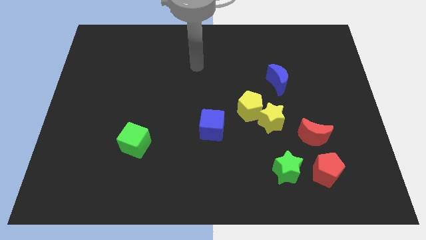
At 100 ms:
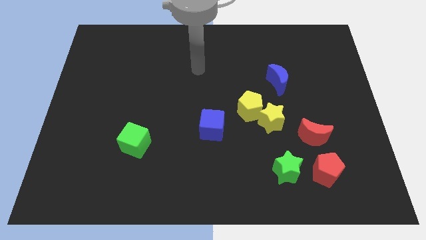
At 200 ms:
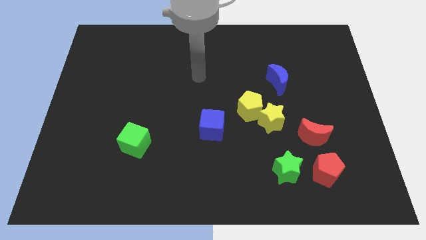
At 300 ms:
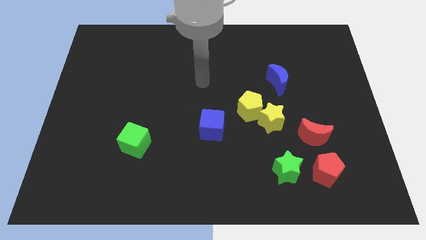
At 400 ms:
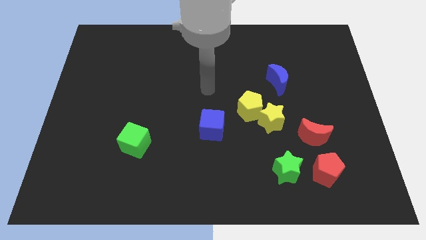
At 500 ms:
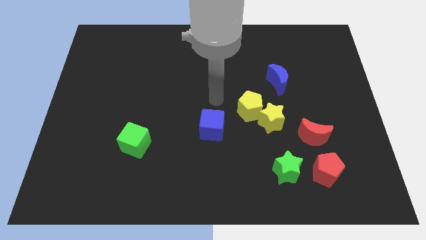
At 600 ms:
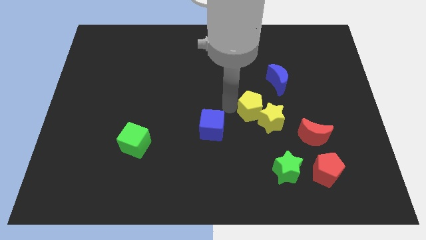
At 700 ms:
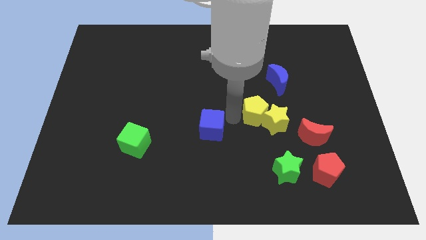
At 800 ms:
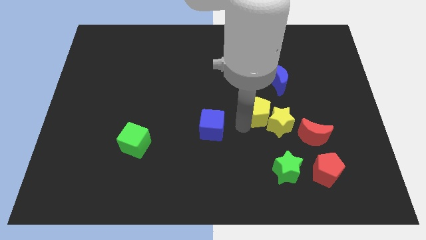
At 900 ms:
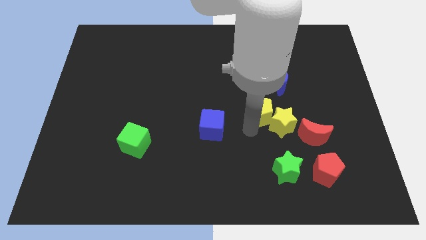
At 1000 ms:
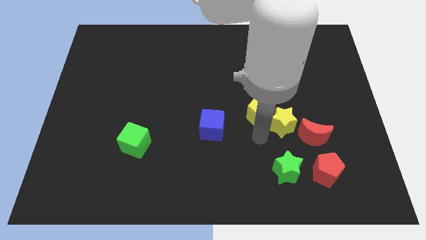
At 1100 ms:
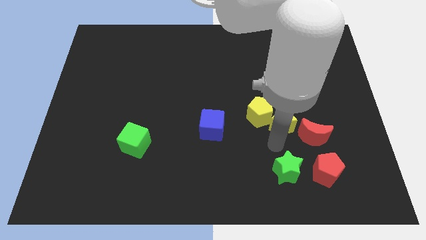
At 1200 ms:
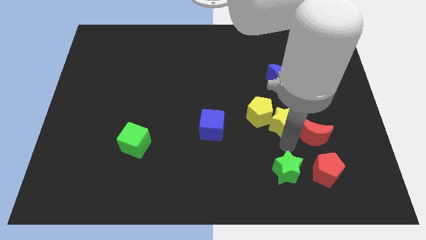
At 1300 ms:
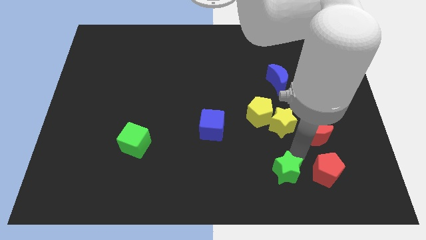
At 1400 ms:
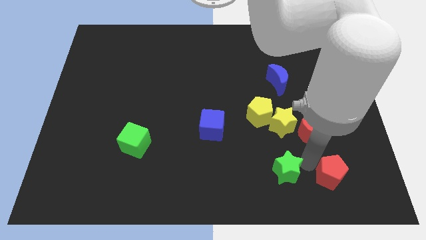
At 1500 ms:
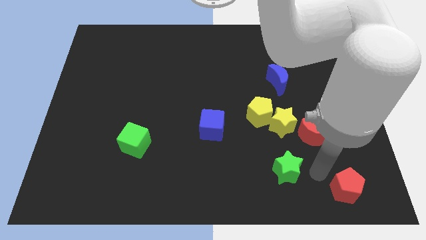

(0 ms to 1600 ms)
separate the green star from the red pentagon

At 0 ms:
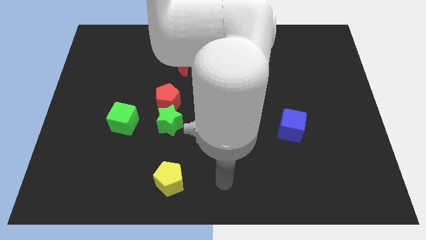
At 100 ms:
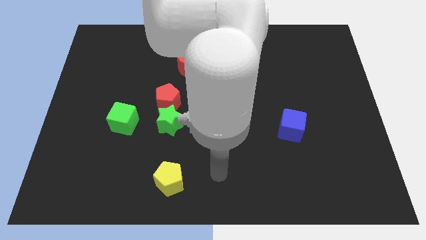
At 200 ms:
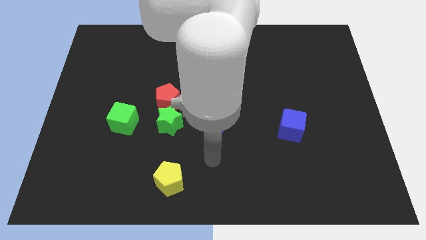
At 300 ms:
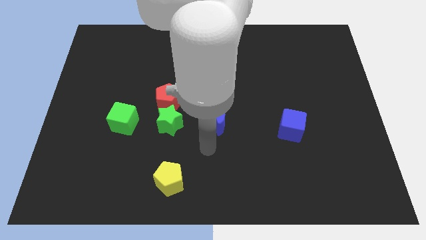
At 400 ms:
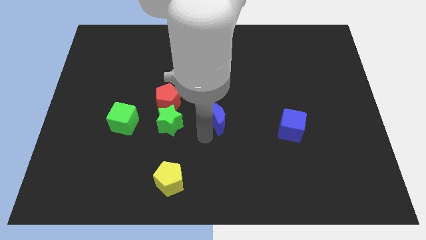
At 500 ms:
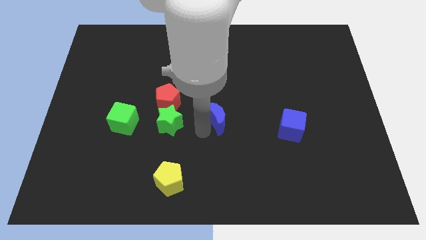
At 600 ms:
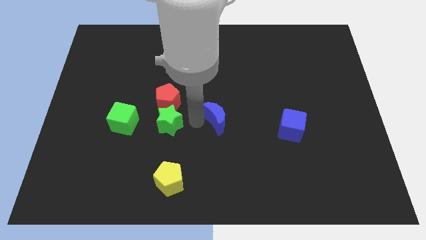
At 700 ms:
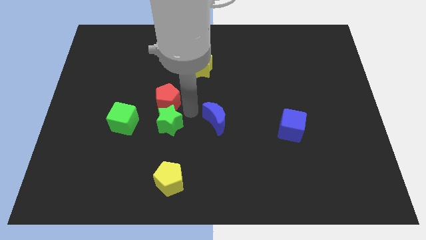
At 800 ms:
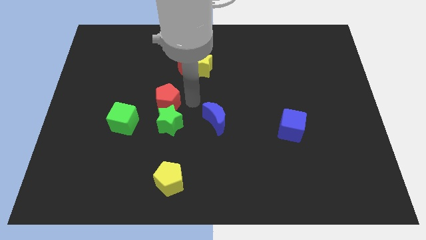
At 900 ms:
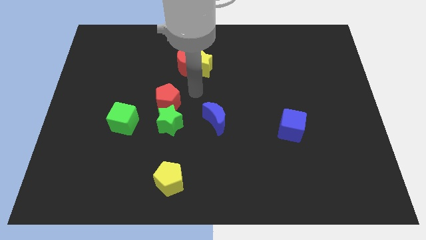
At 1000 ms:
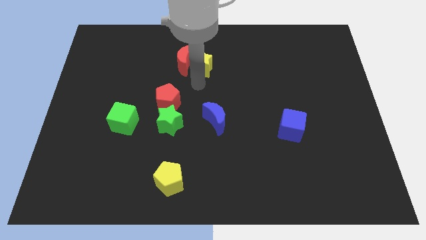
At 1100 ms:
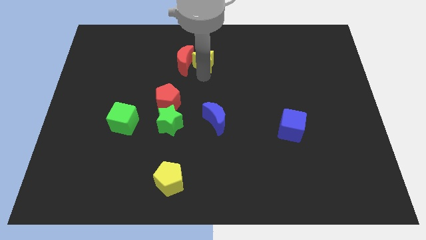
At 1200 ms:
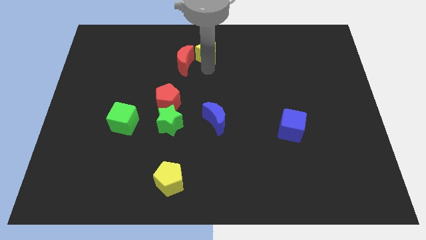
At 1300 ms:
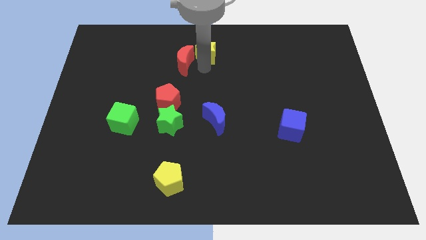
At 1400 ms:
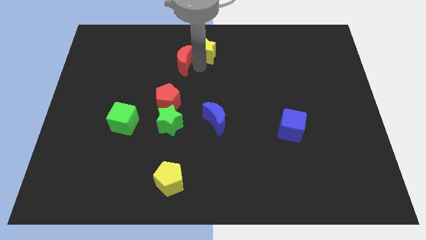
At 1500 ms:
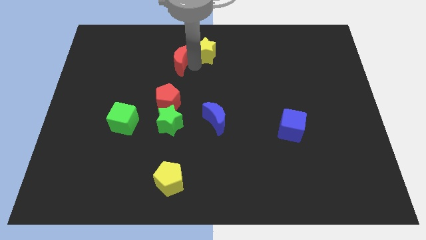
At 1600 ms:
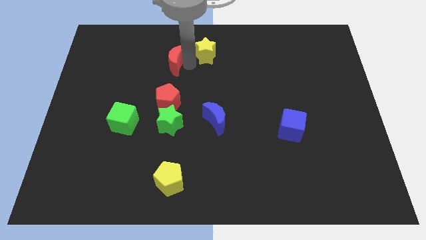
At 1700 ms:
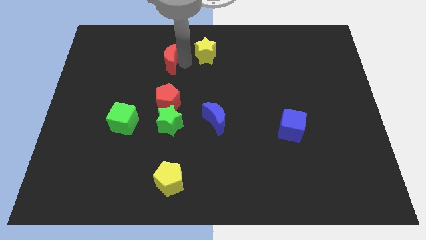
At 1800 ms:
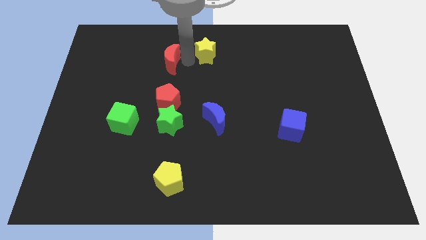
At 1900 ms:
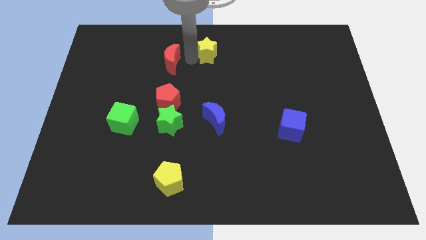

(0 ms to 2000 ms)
separate the red moon from the yellow star

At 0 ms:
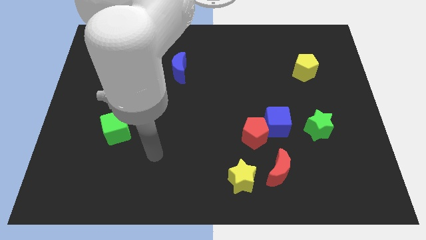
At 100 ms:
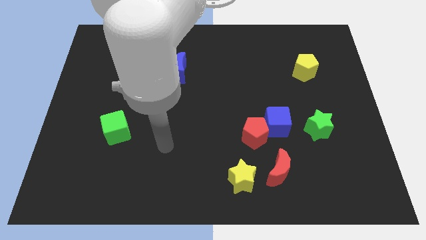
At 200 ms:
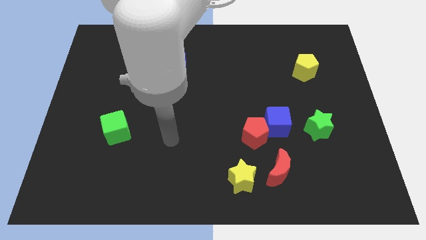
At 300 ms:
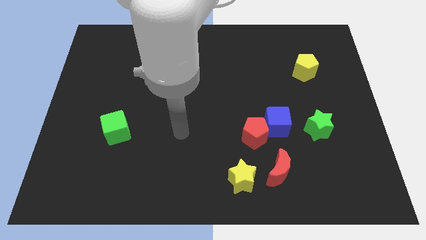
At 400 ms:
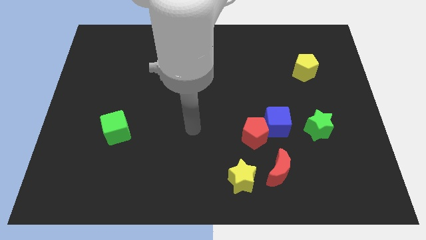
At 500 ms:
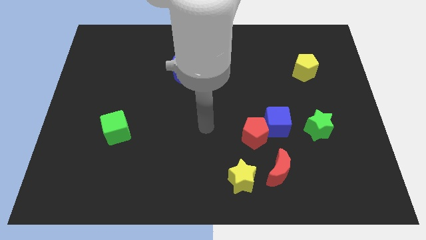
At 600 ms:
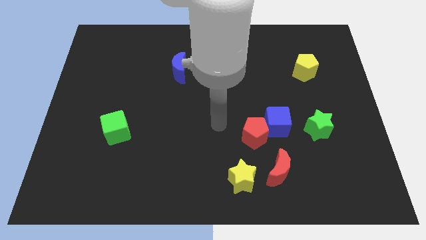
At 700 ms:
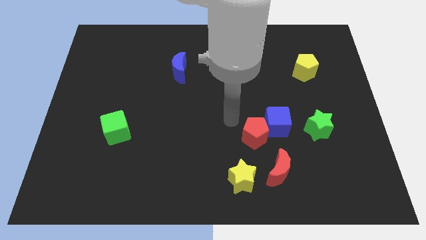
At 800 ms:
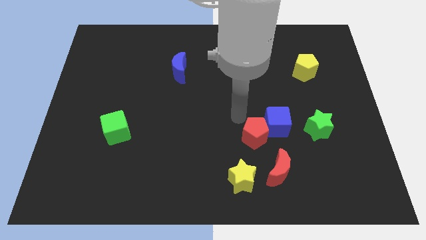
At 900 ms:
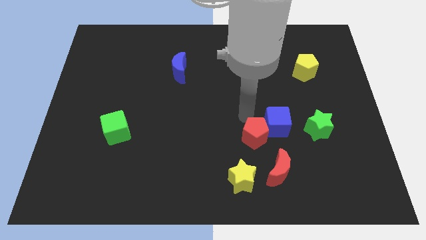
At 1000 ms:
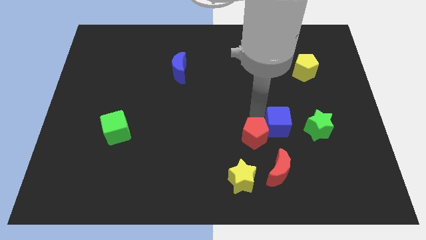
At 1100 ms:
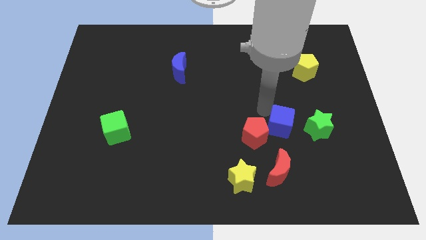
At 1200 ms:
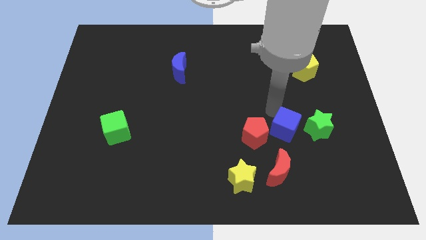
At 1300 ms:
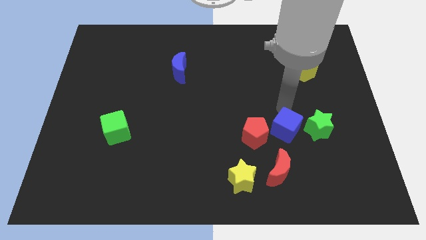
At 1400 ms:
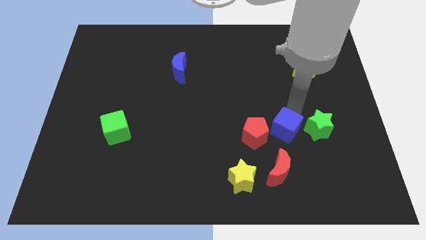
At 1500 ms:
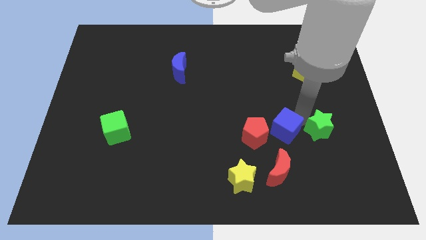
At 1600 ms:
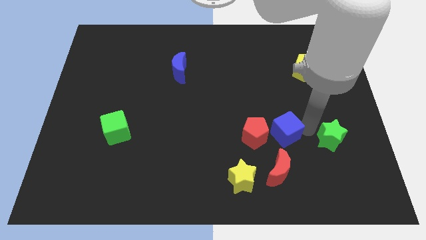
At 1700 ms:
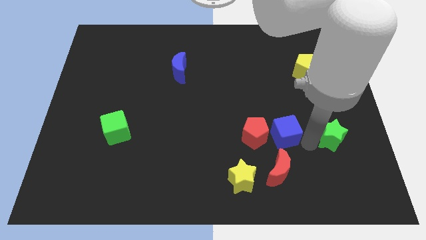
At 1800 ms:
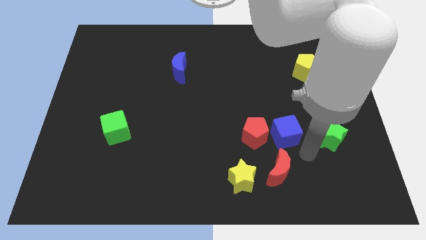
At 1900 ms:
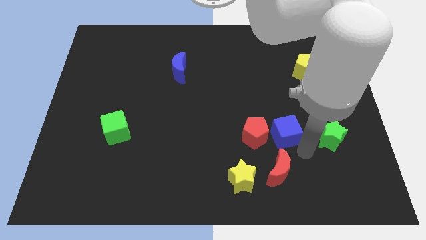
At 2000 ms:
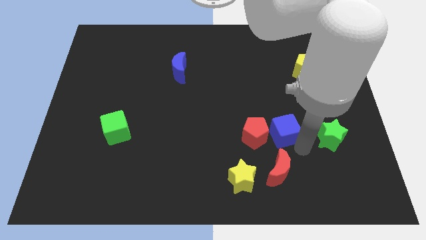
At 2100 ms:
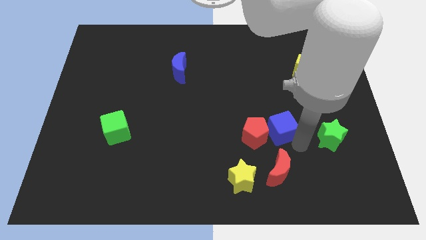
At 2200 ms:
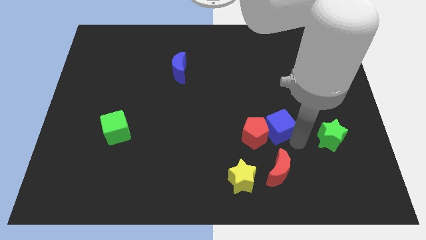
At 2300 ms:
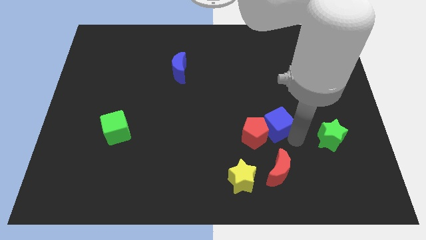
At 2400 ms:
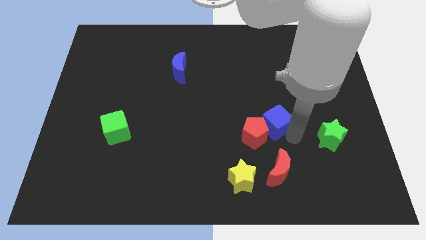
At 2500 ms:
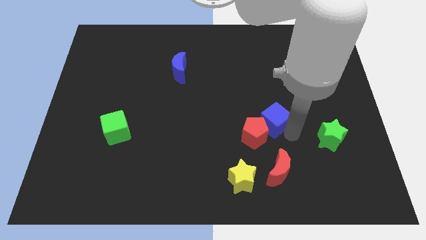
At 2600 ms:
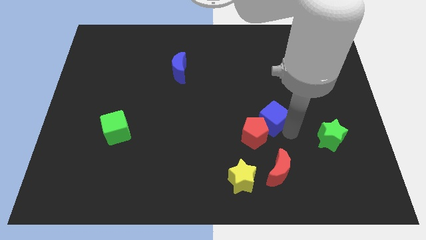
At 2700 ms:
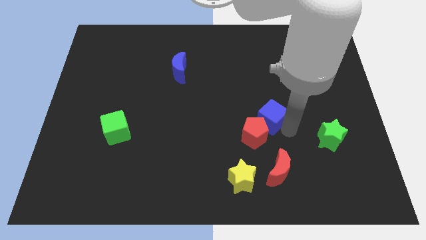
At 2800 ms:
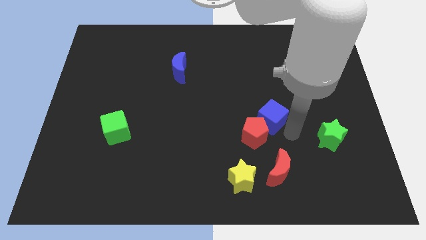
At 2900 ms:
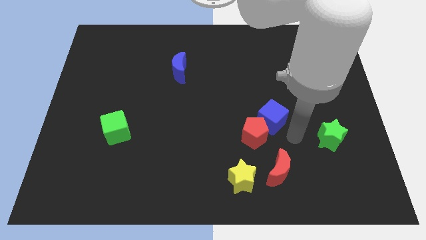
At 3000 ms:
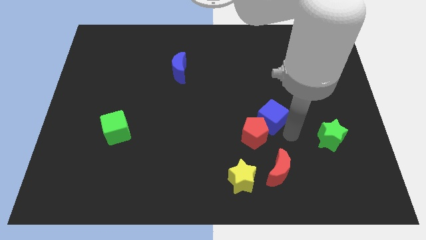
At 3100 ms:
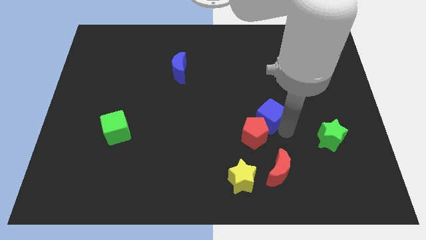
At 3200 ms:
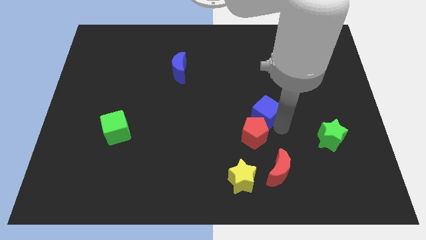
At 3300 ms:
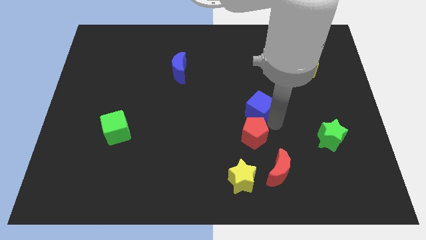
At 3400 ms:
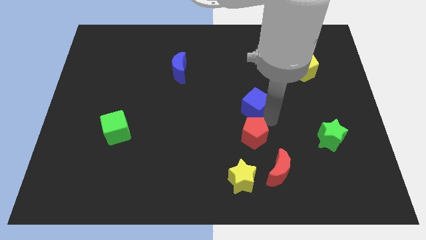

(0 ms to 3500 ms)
pull the blue cube apart from the red pentagon and green star

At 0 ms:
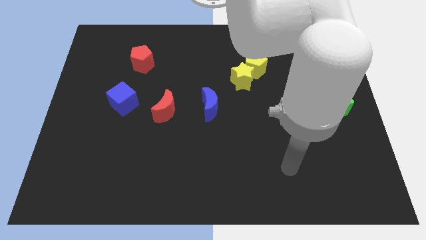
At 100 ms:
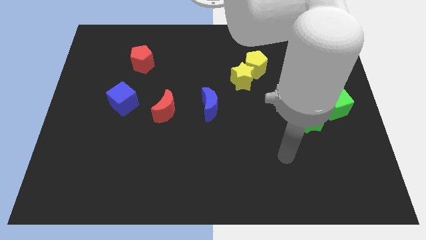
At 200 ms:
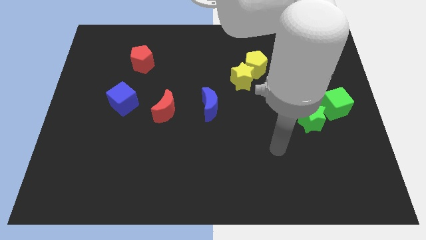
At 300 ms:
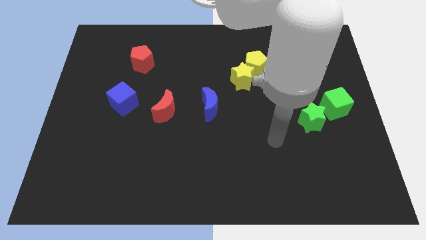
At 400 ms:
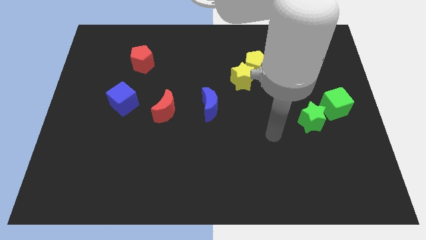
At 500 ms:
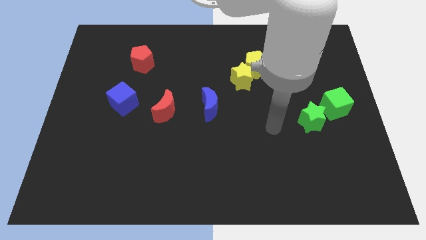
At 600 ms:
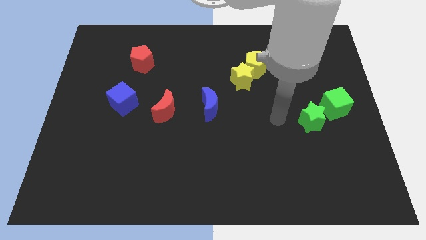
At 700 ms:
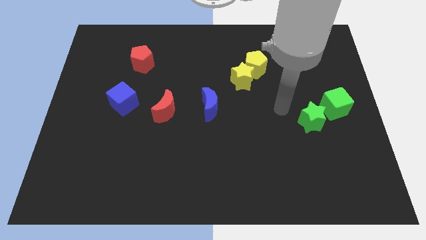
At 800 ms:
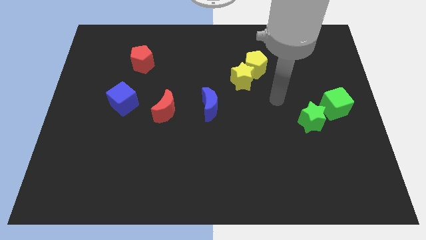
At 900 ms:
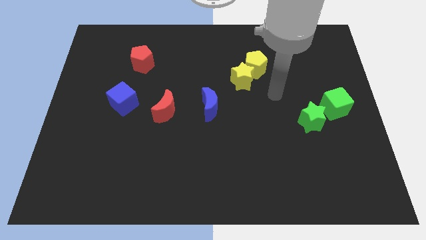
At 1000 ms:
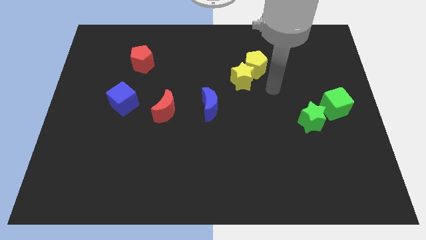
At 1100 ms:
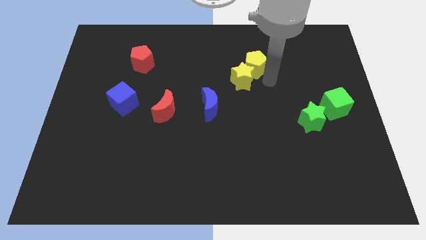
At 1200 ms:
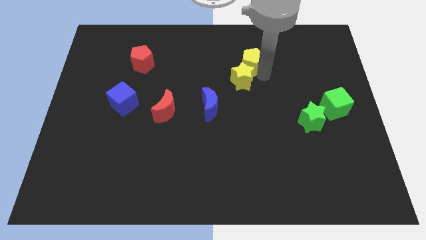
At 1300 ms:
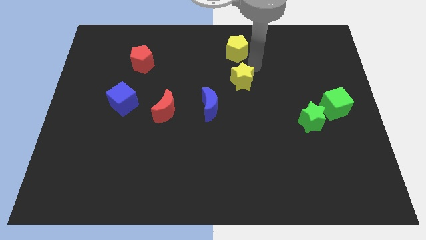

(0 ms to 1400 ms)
move the yellow star away from the yellow pentagon

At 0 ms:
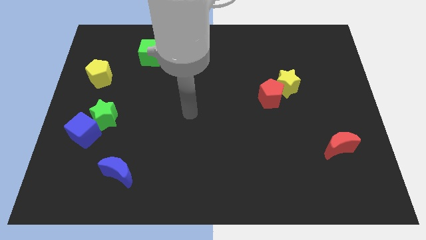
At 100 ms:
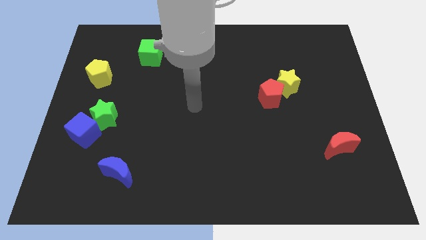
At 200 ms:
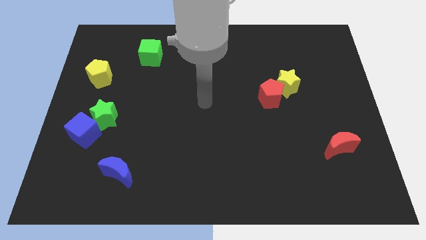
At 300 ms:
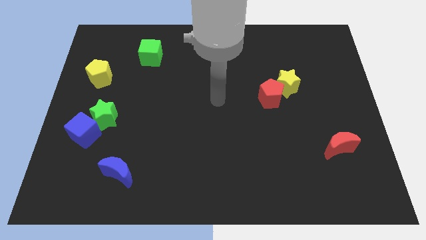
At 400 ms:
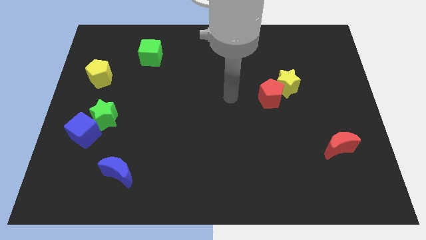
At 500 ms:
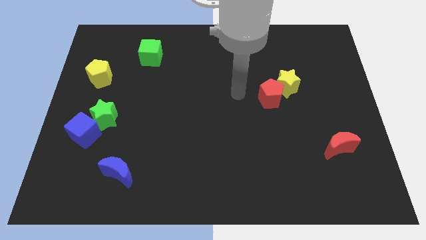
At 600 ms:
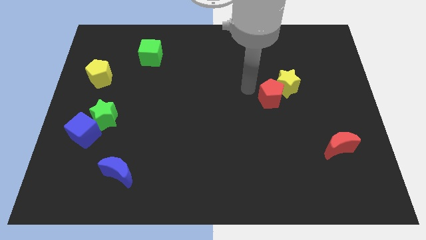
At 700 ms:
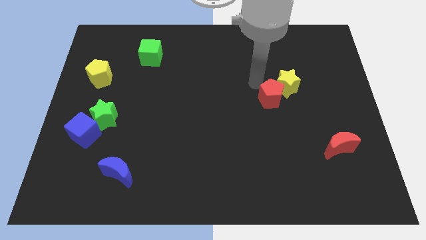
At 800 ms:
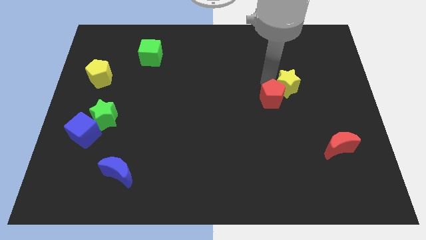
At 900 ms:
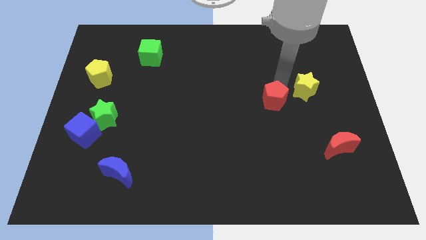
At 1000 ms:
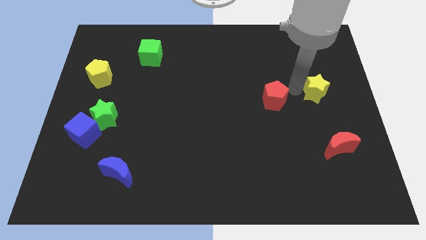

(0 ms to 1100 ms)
pull the red pentagon apart from the yellow star
